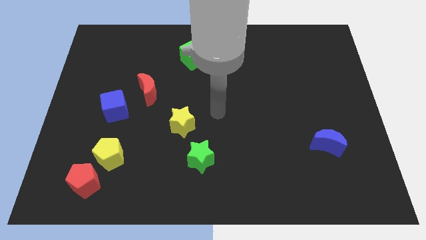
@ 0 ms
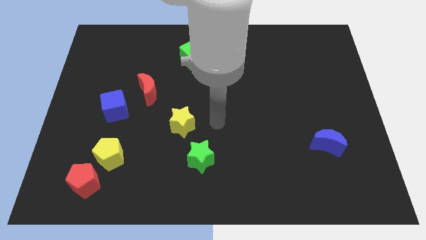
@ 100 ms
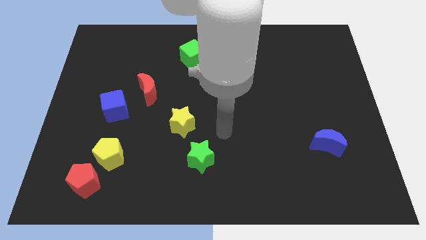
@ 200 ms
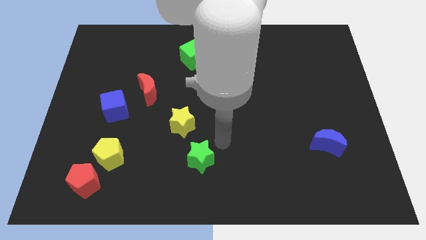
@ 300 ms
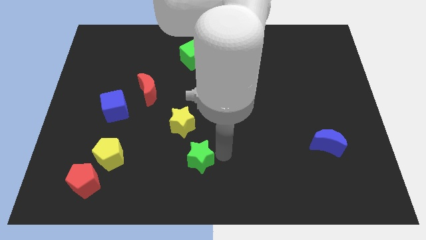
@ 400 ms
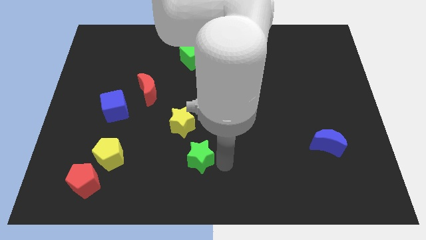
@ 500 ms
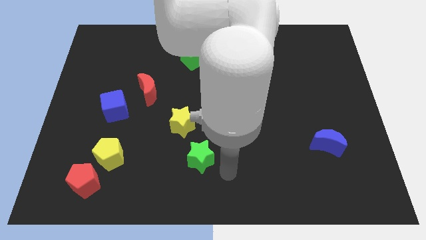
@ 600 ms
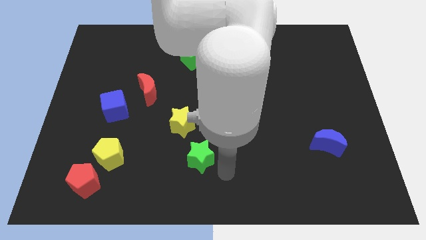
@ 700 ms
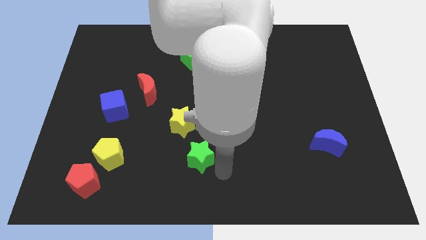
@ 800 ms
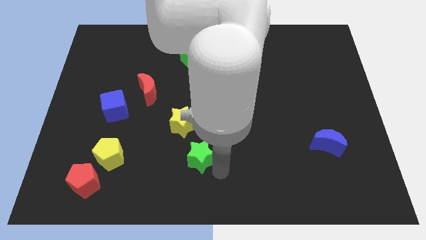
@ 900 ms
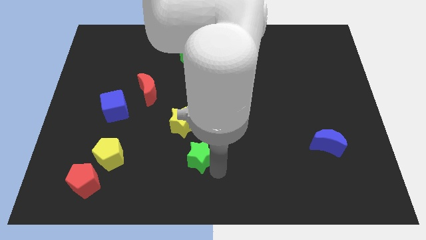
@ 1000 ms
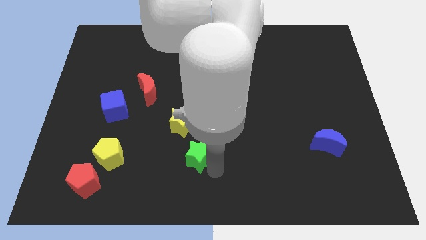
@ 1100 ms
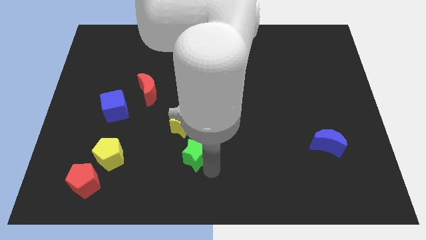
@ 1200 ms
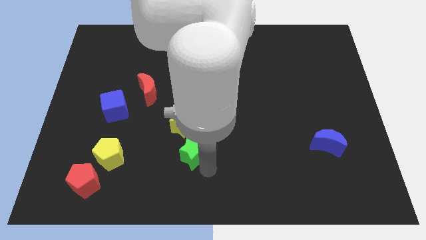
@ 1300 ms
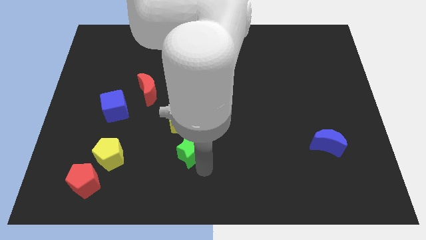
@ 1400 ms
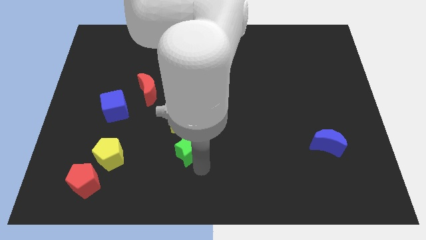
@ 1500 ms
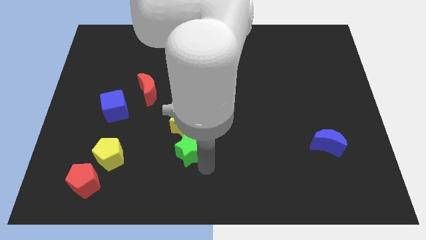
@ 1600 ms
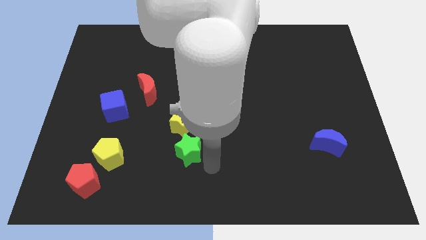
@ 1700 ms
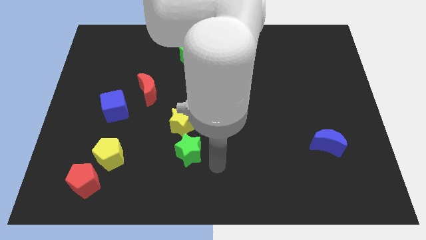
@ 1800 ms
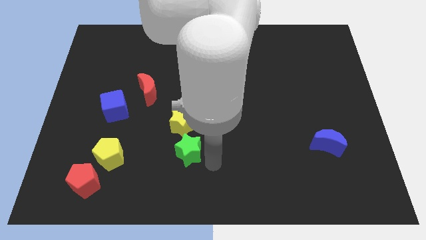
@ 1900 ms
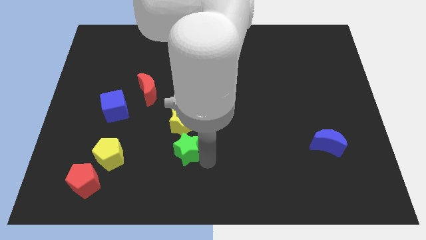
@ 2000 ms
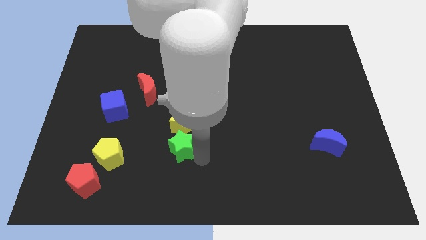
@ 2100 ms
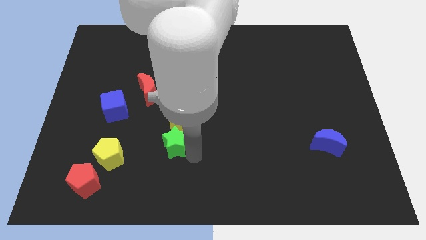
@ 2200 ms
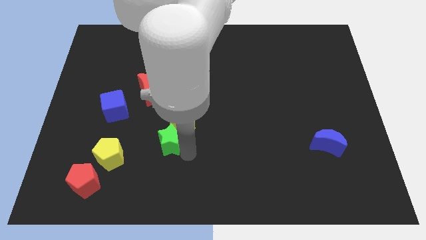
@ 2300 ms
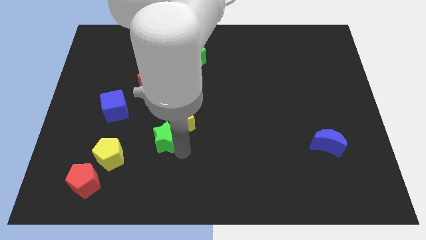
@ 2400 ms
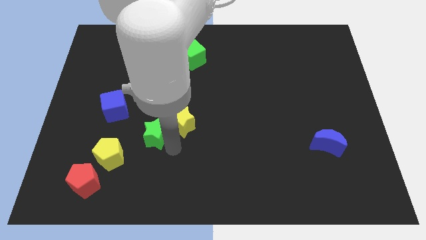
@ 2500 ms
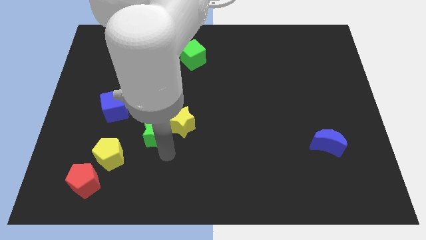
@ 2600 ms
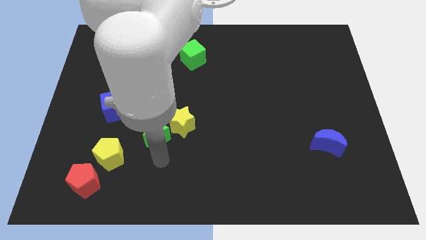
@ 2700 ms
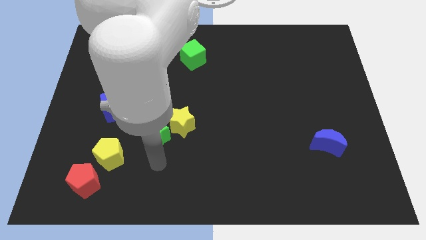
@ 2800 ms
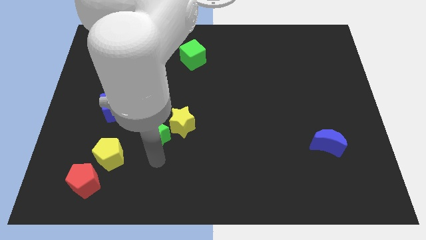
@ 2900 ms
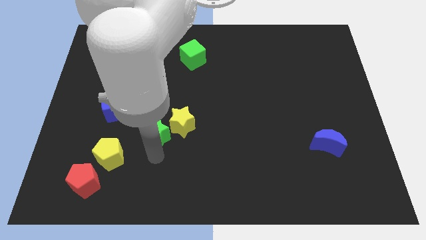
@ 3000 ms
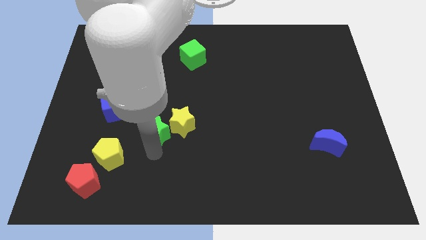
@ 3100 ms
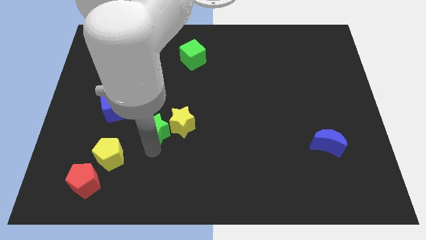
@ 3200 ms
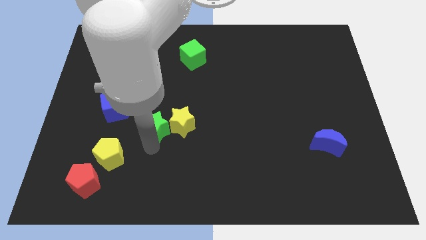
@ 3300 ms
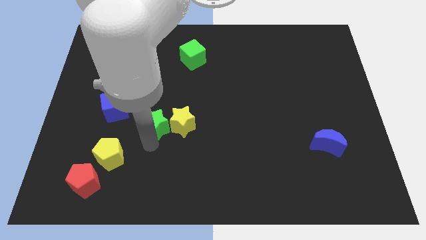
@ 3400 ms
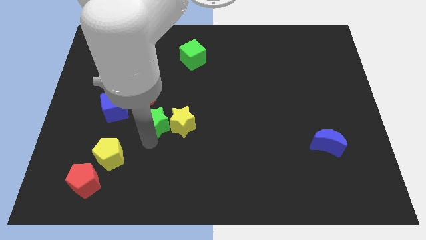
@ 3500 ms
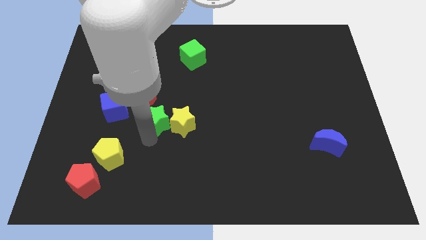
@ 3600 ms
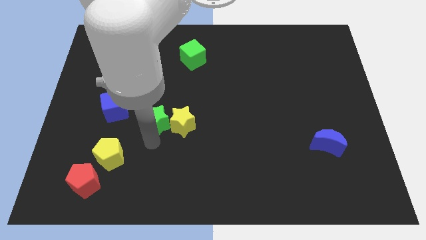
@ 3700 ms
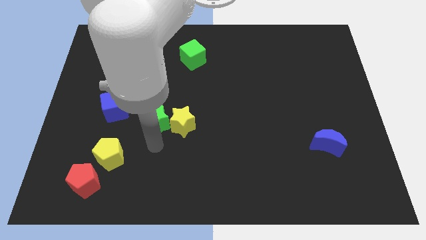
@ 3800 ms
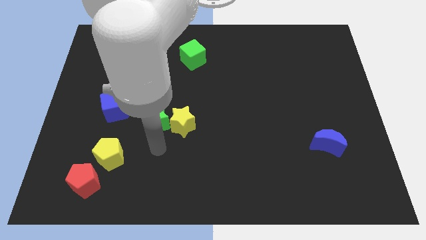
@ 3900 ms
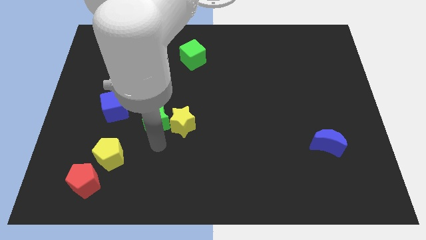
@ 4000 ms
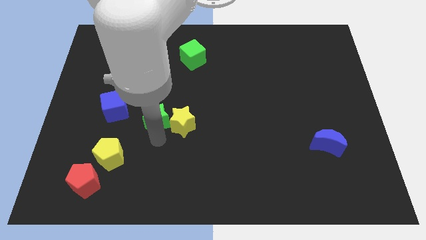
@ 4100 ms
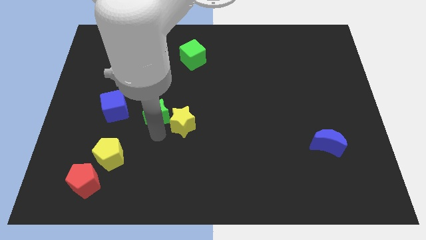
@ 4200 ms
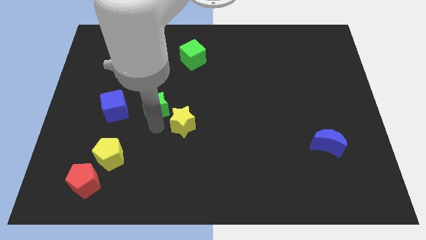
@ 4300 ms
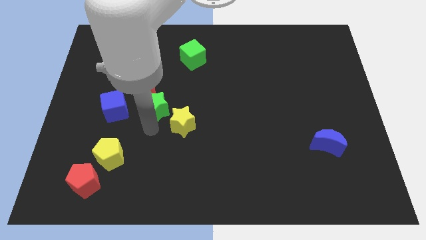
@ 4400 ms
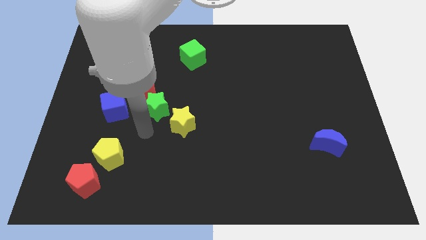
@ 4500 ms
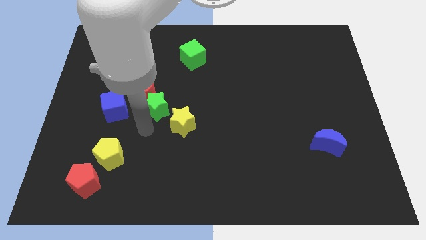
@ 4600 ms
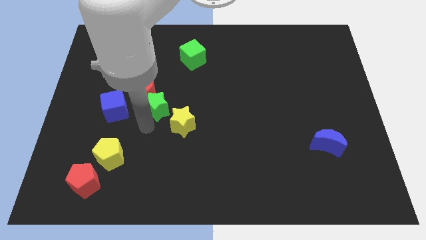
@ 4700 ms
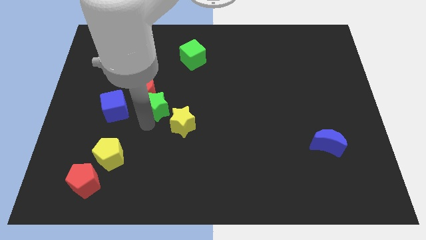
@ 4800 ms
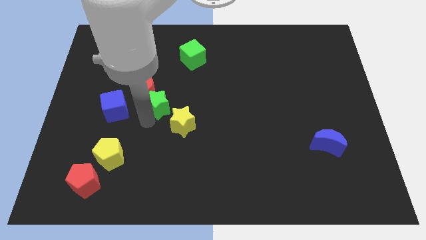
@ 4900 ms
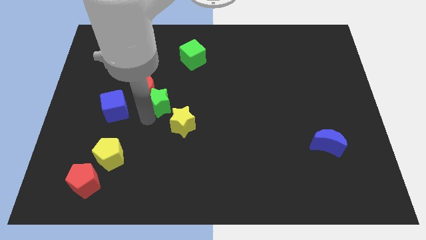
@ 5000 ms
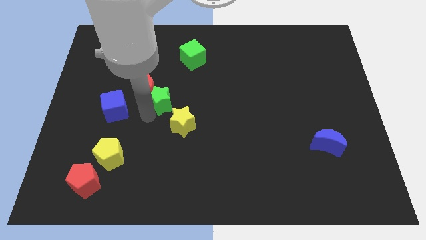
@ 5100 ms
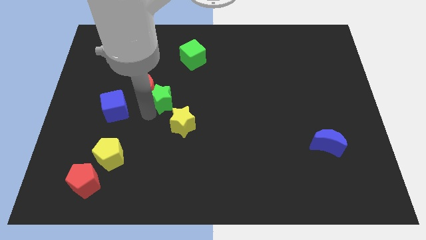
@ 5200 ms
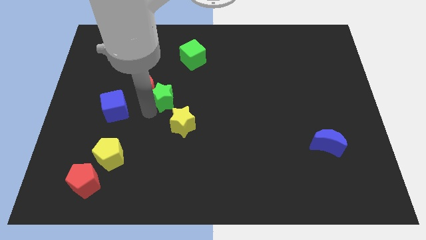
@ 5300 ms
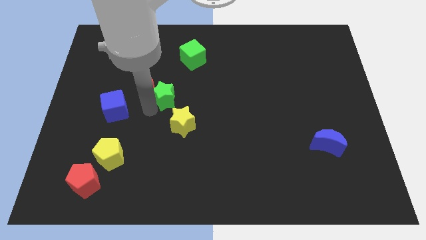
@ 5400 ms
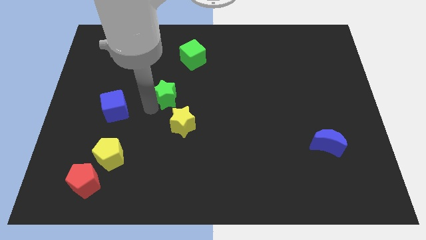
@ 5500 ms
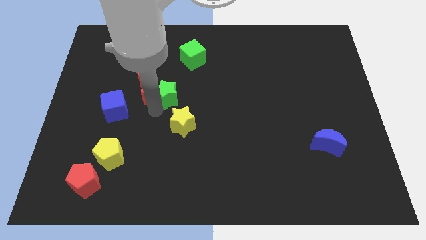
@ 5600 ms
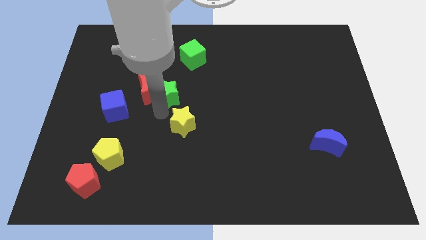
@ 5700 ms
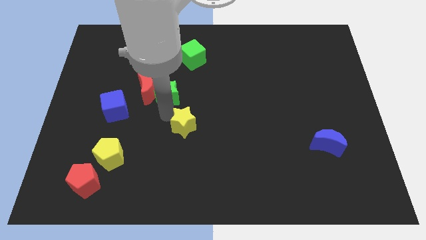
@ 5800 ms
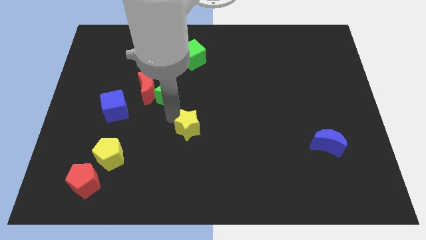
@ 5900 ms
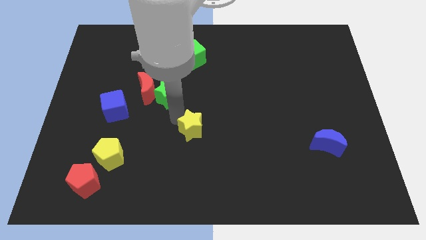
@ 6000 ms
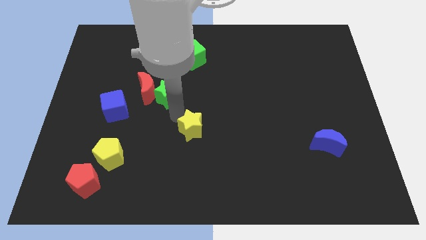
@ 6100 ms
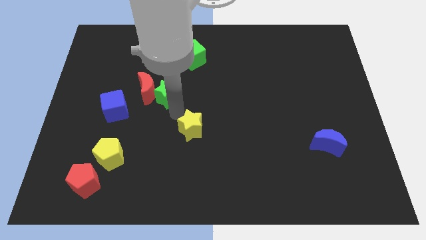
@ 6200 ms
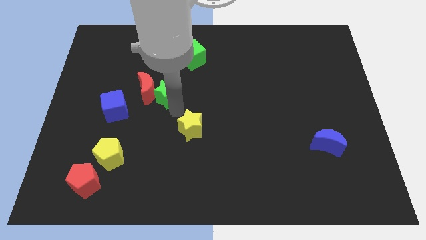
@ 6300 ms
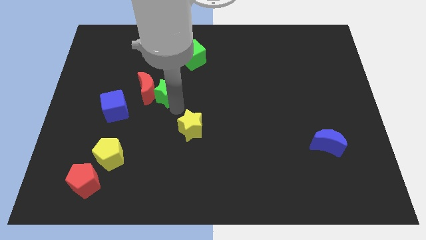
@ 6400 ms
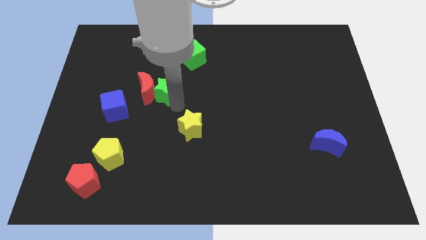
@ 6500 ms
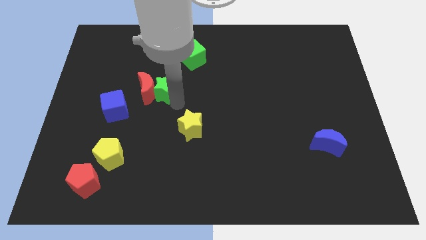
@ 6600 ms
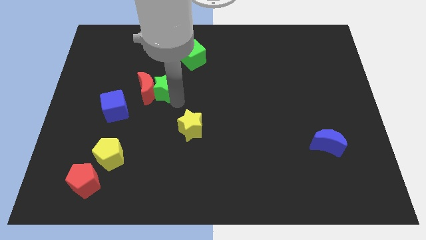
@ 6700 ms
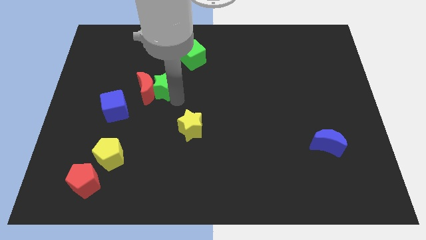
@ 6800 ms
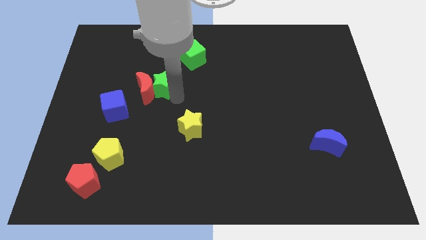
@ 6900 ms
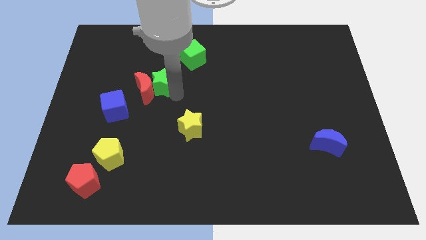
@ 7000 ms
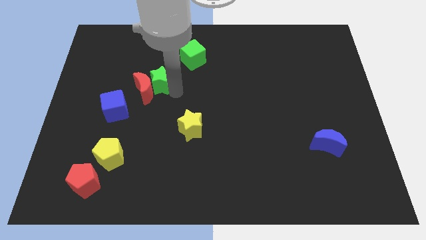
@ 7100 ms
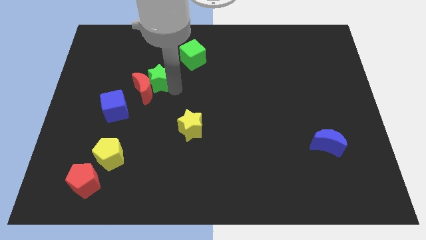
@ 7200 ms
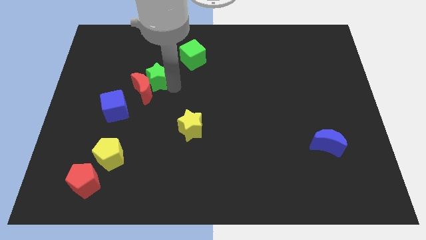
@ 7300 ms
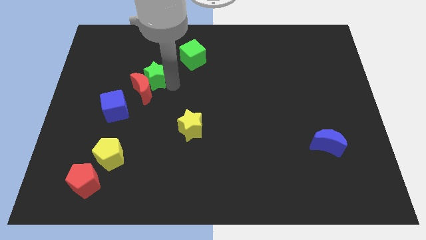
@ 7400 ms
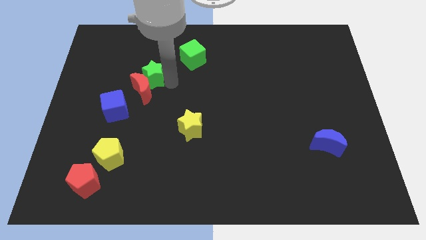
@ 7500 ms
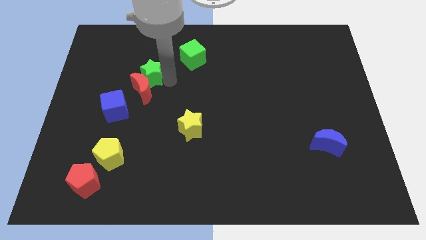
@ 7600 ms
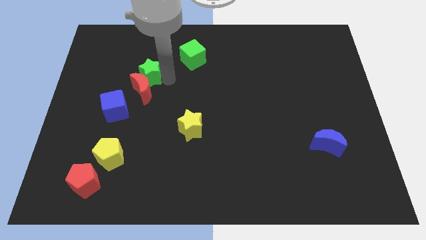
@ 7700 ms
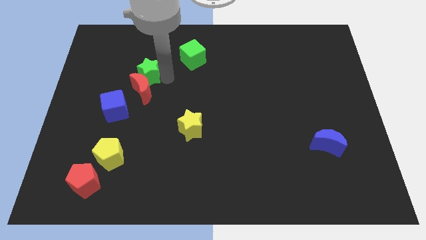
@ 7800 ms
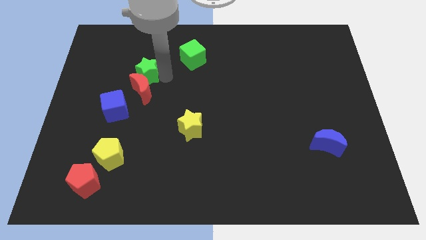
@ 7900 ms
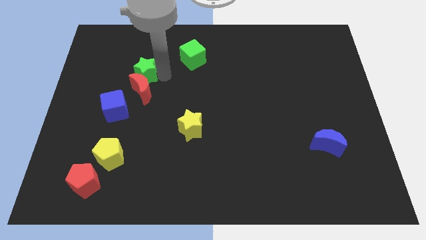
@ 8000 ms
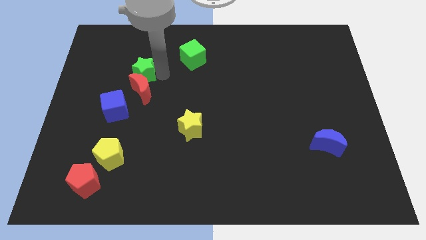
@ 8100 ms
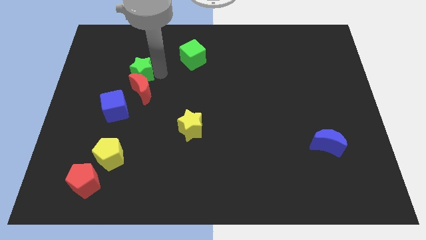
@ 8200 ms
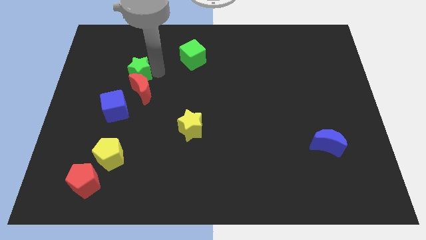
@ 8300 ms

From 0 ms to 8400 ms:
move the green star to the top of the blue cube
